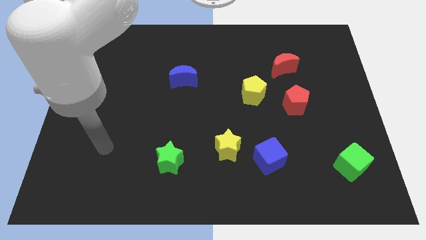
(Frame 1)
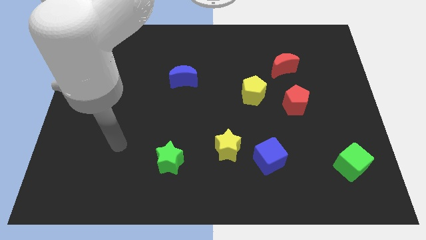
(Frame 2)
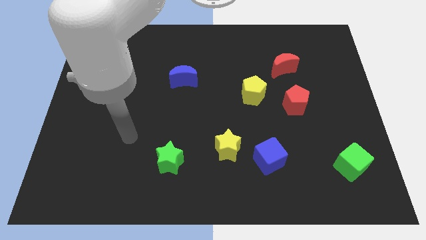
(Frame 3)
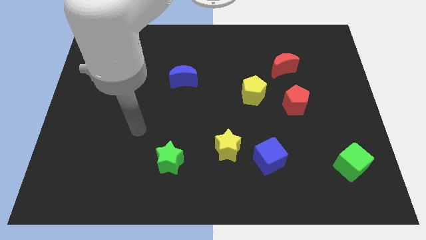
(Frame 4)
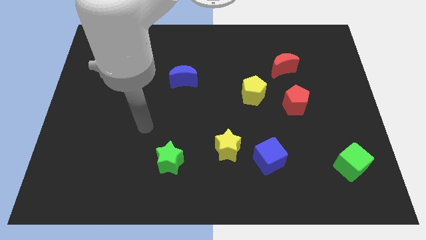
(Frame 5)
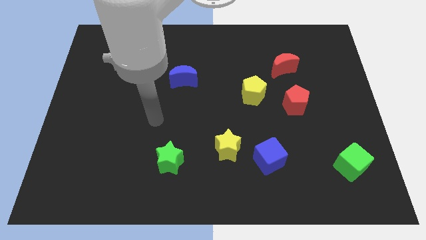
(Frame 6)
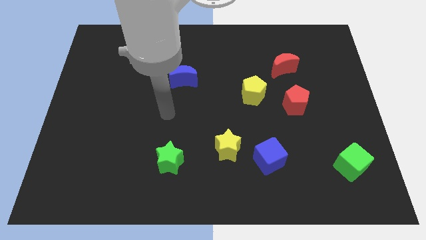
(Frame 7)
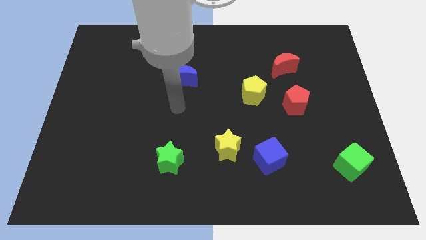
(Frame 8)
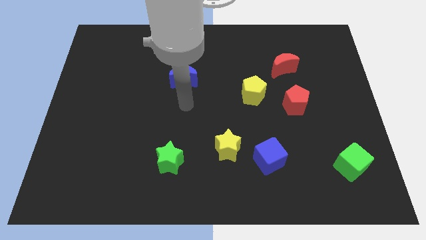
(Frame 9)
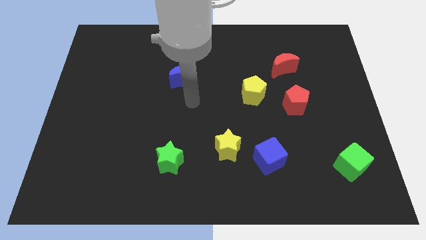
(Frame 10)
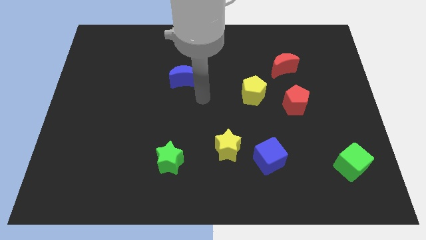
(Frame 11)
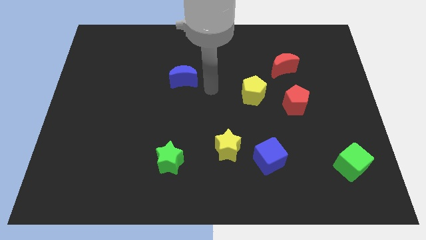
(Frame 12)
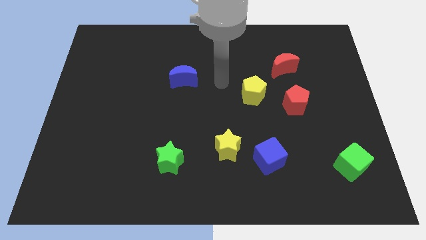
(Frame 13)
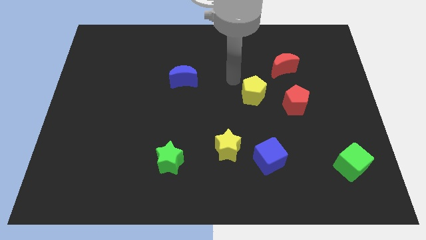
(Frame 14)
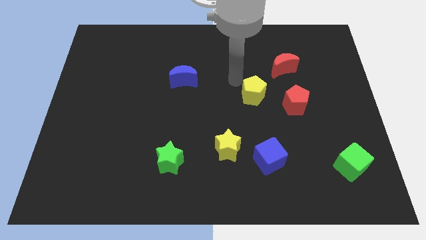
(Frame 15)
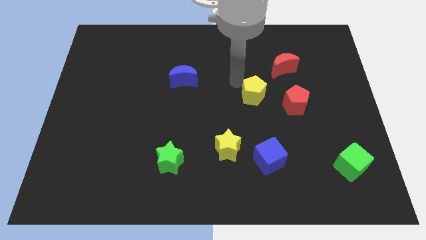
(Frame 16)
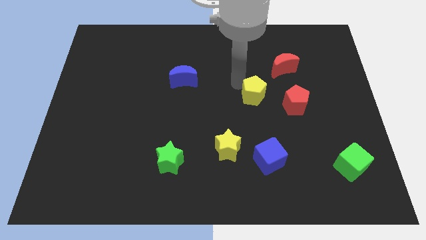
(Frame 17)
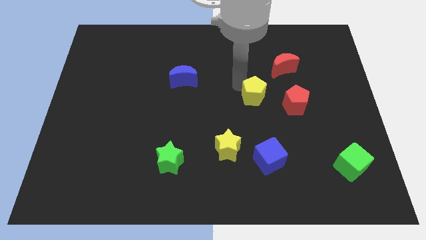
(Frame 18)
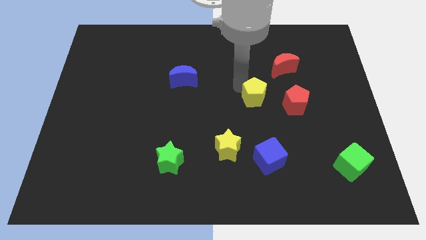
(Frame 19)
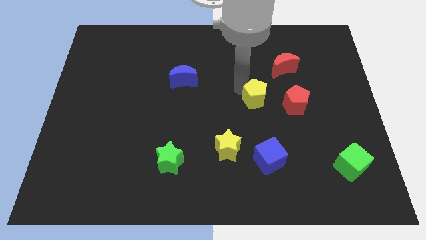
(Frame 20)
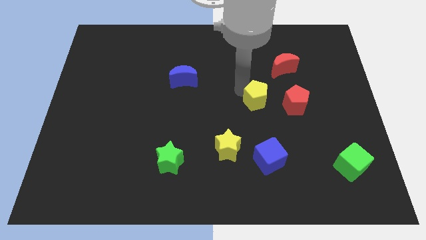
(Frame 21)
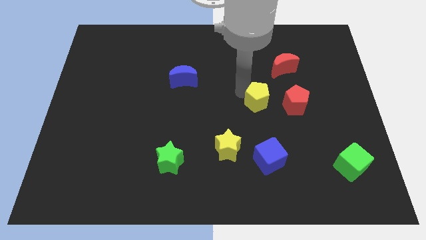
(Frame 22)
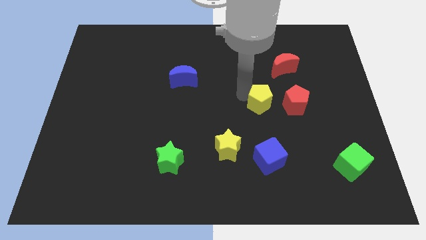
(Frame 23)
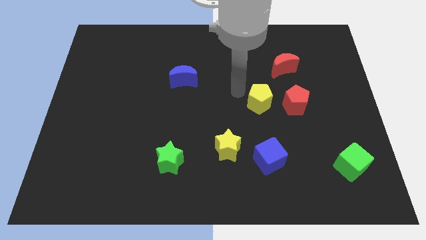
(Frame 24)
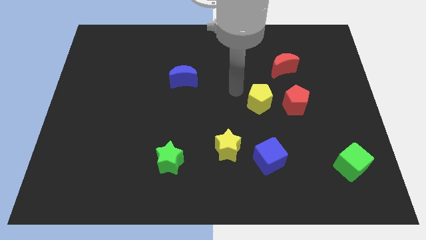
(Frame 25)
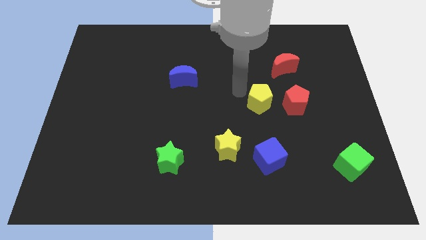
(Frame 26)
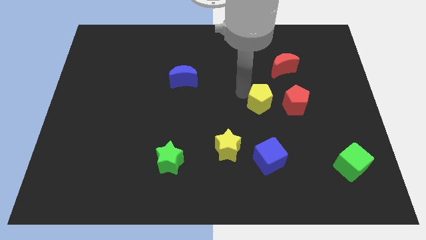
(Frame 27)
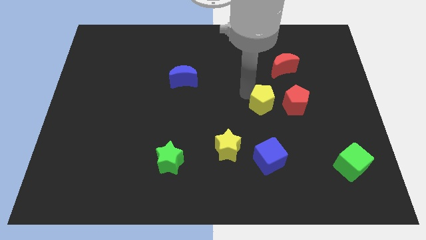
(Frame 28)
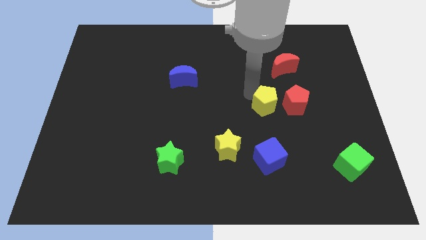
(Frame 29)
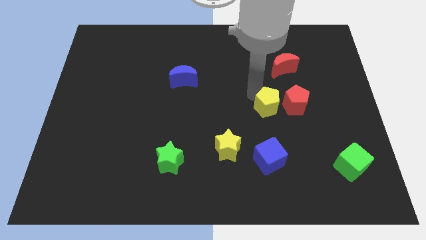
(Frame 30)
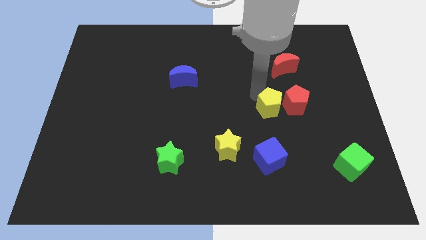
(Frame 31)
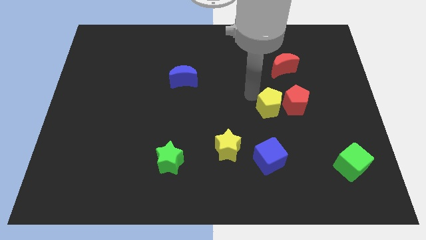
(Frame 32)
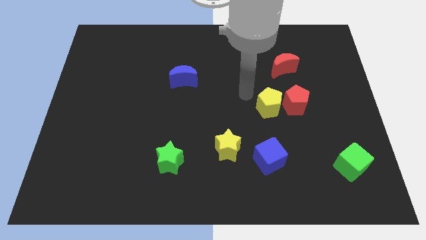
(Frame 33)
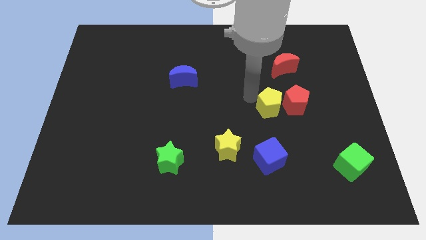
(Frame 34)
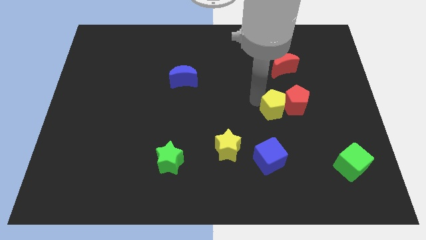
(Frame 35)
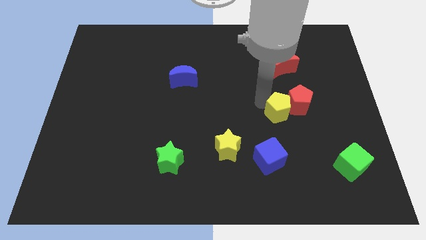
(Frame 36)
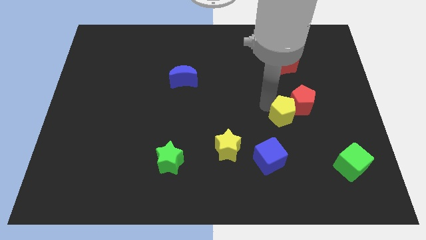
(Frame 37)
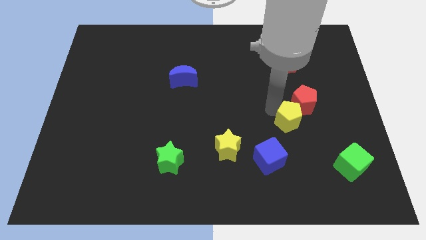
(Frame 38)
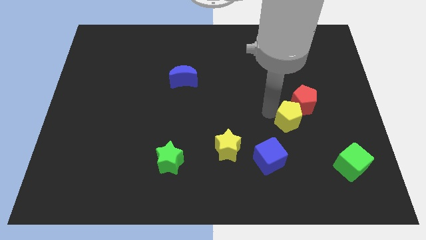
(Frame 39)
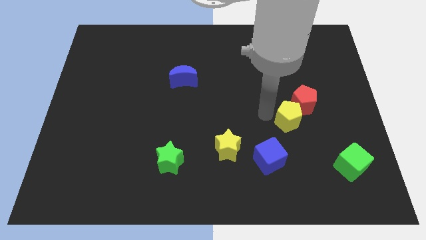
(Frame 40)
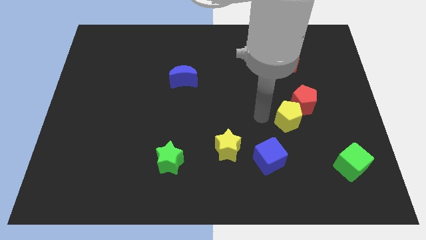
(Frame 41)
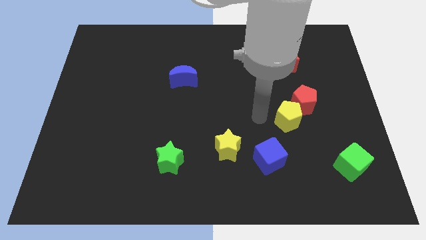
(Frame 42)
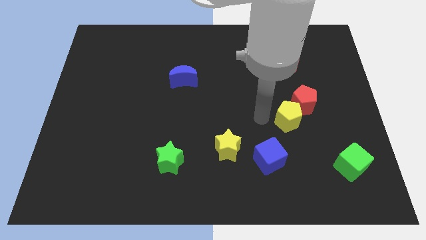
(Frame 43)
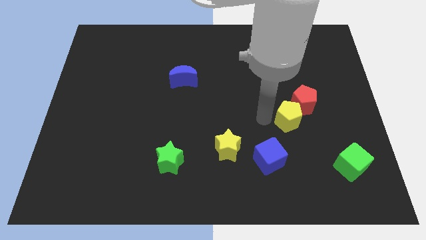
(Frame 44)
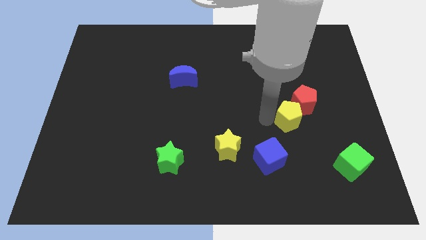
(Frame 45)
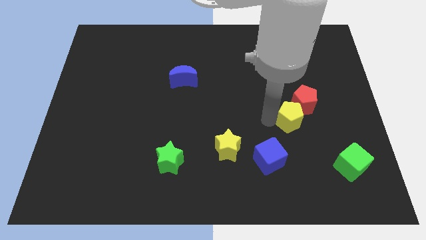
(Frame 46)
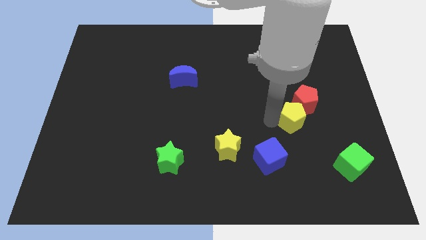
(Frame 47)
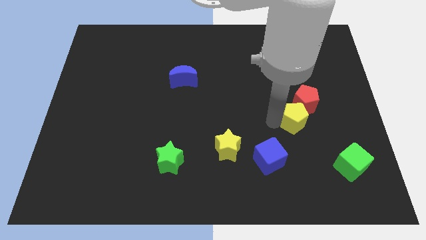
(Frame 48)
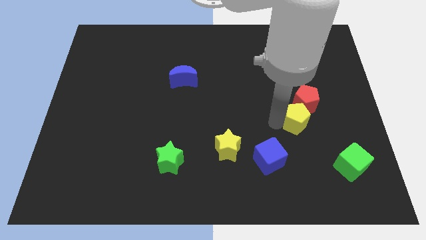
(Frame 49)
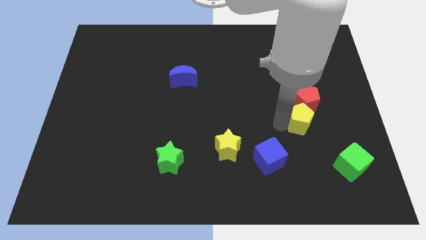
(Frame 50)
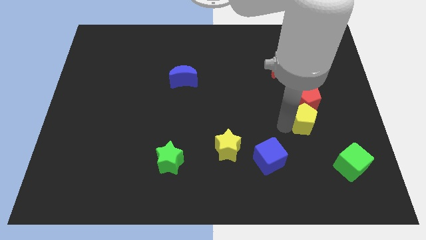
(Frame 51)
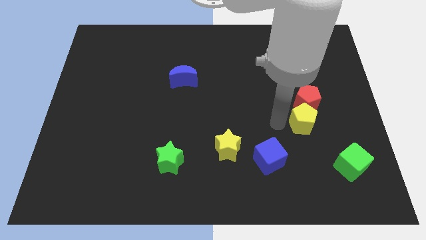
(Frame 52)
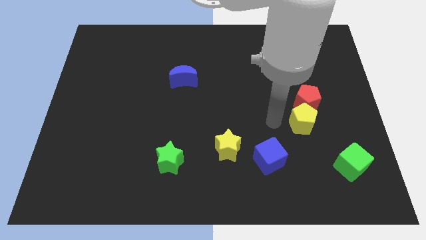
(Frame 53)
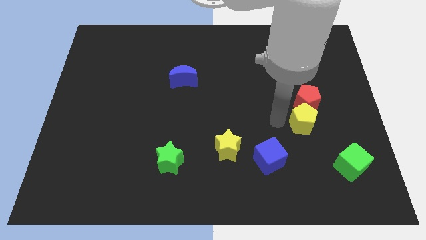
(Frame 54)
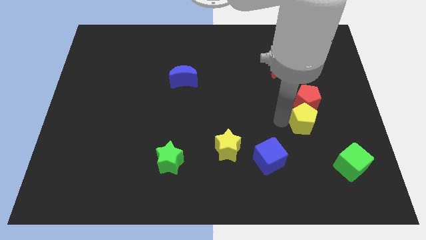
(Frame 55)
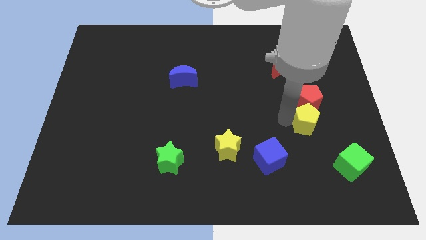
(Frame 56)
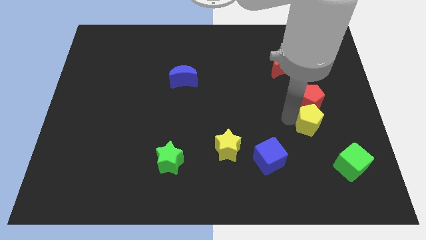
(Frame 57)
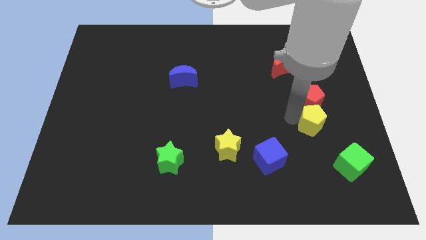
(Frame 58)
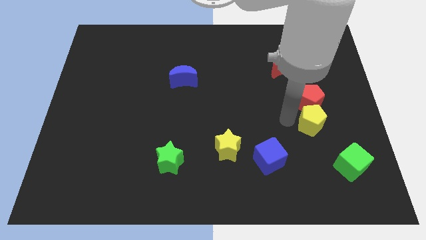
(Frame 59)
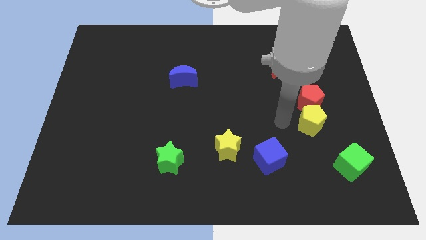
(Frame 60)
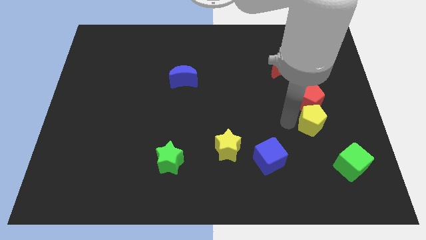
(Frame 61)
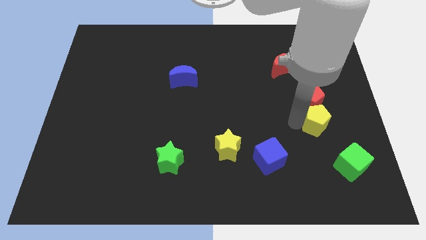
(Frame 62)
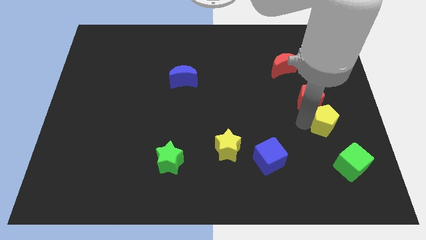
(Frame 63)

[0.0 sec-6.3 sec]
put the yellow pentagon above the green cube
